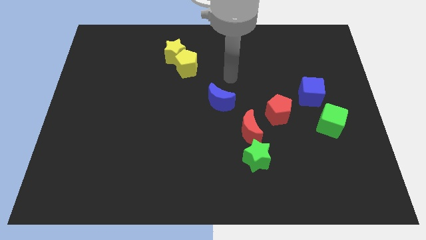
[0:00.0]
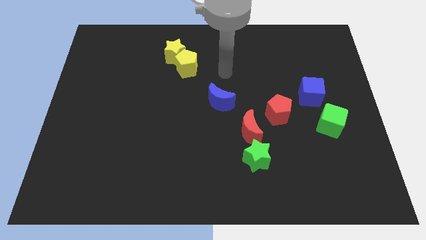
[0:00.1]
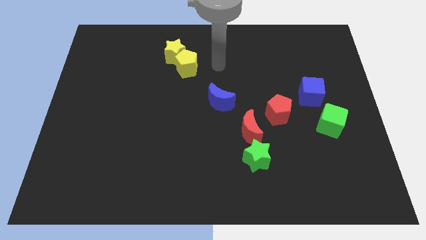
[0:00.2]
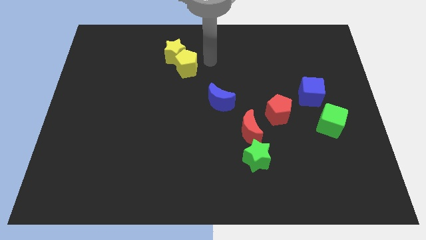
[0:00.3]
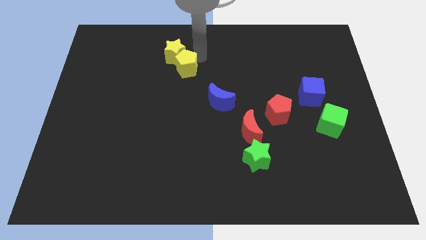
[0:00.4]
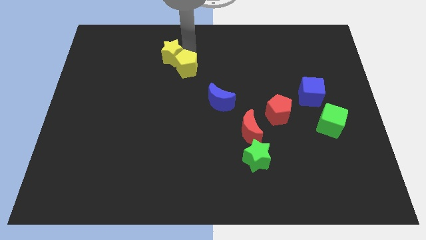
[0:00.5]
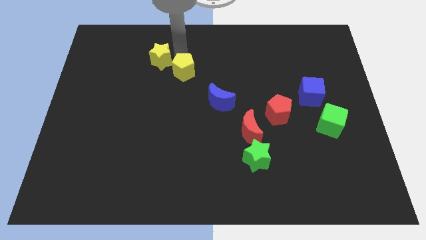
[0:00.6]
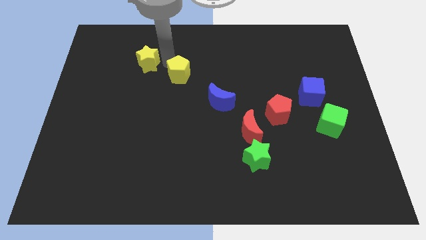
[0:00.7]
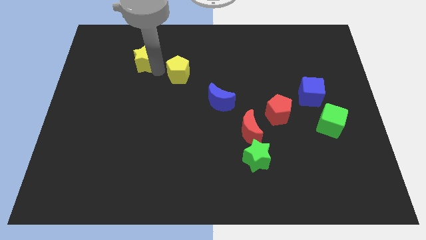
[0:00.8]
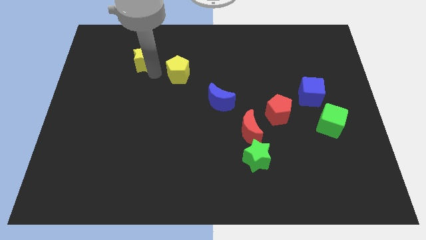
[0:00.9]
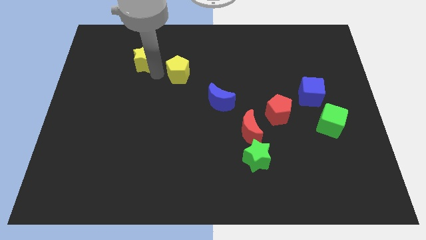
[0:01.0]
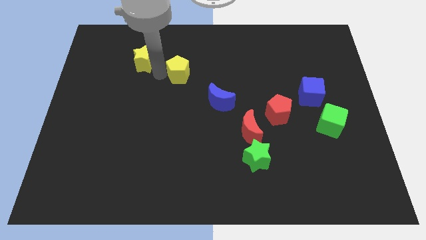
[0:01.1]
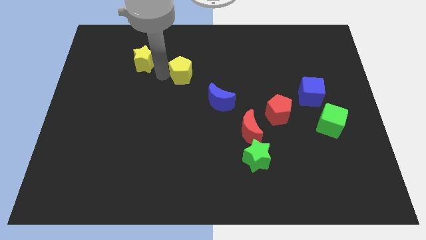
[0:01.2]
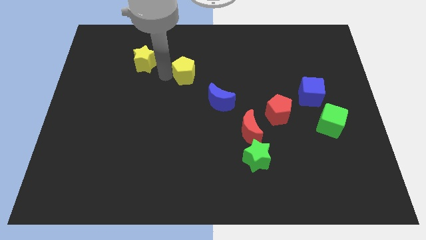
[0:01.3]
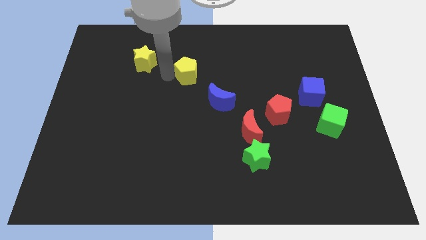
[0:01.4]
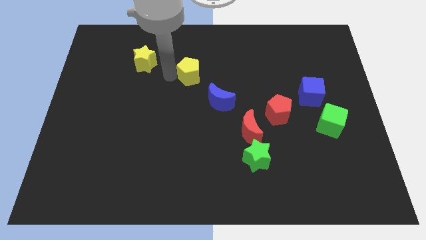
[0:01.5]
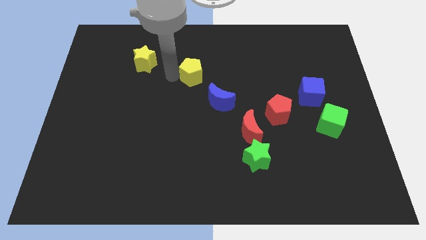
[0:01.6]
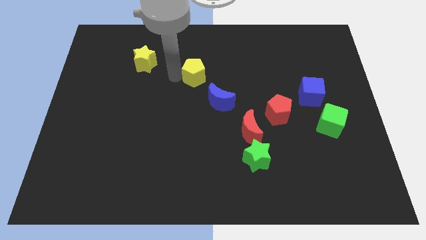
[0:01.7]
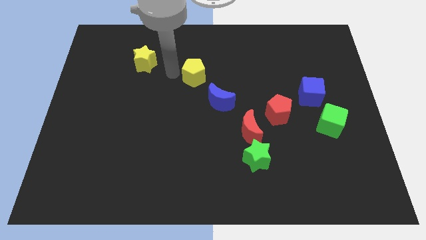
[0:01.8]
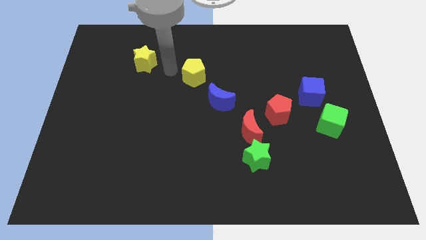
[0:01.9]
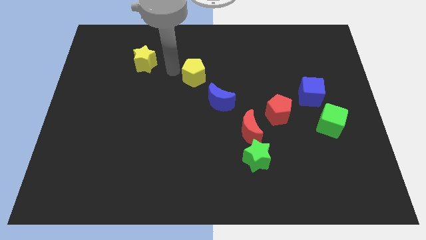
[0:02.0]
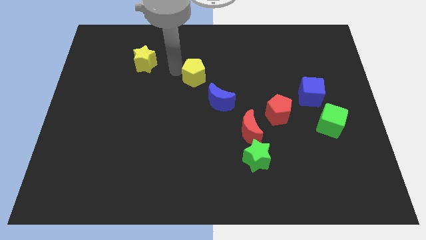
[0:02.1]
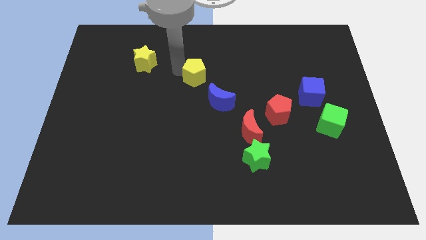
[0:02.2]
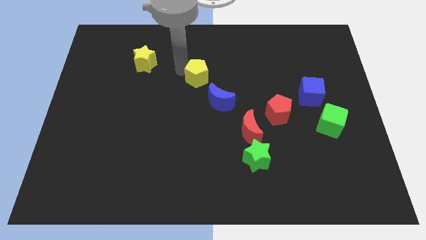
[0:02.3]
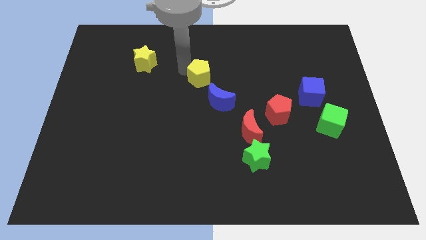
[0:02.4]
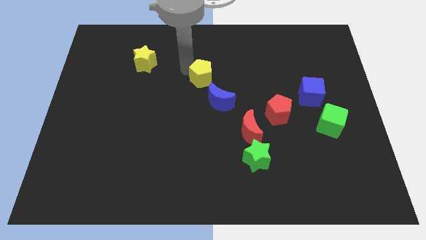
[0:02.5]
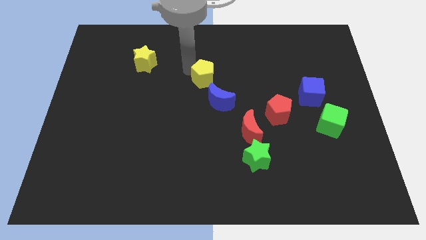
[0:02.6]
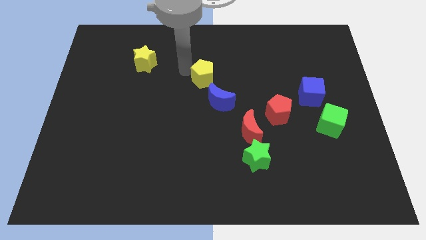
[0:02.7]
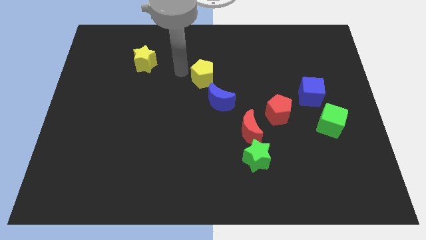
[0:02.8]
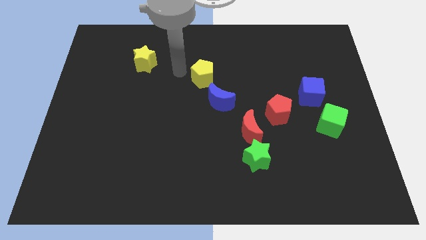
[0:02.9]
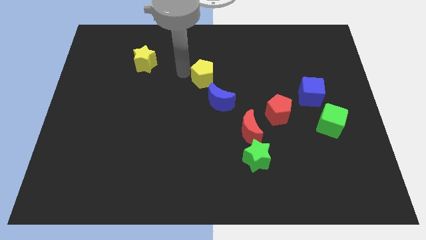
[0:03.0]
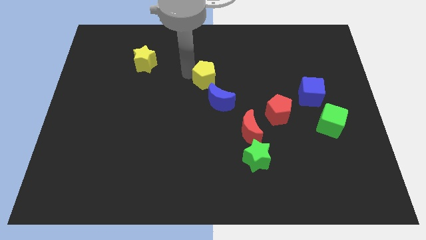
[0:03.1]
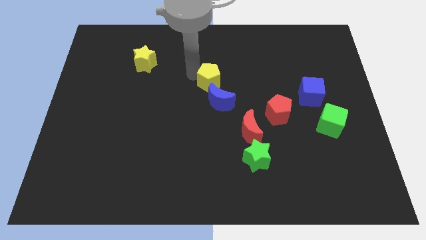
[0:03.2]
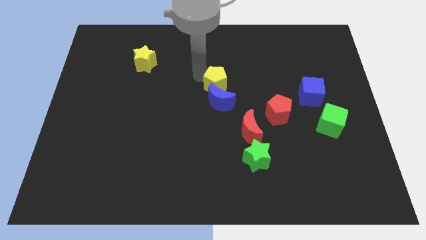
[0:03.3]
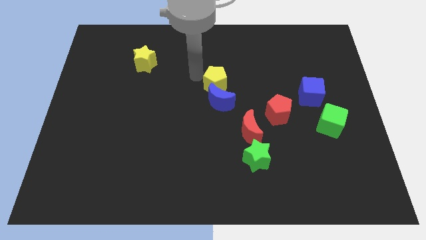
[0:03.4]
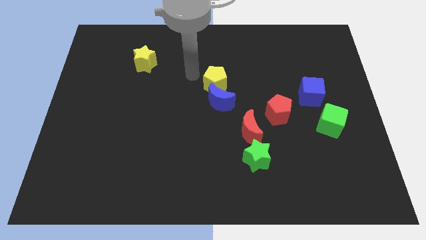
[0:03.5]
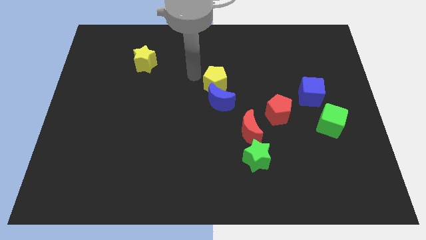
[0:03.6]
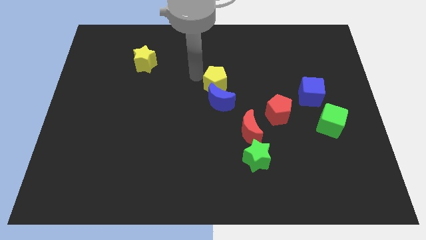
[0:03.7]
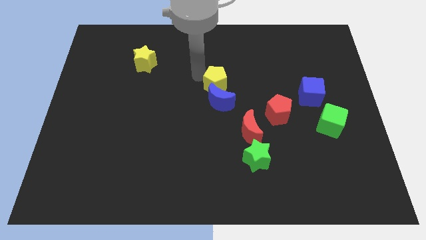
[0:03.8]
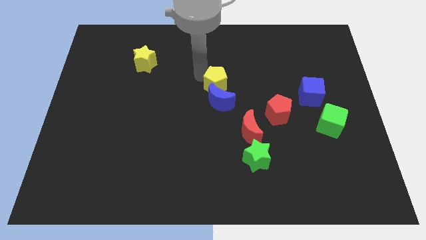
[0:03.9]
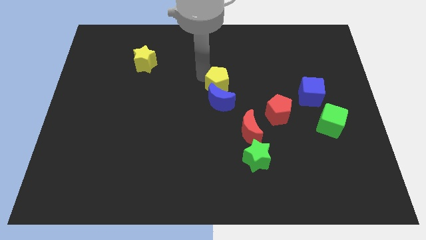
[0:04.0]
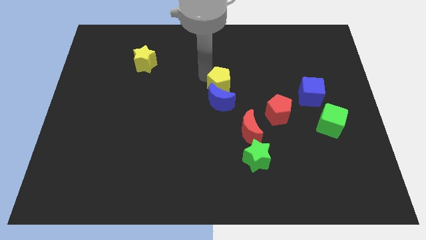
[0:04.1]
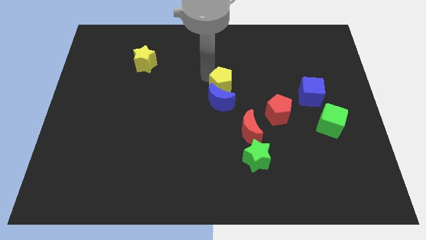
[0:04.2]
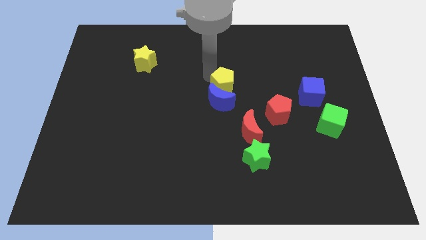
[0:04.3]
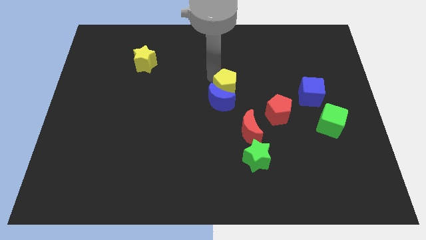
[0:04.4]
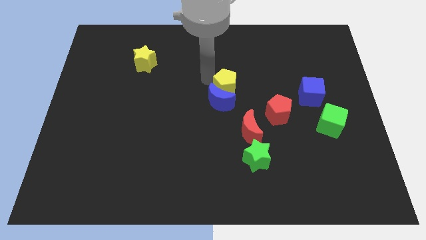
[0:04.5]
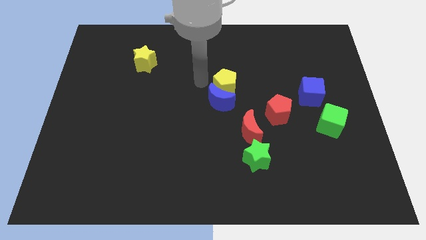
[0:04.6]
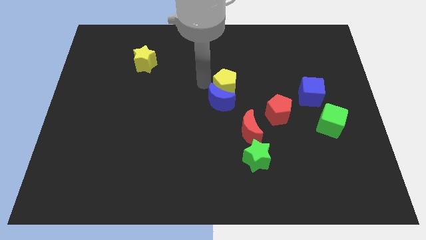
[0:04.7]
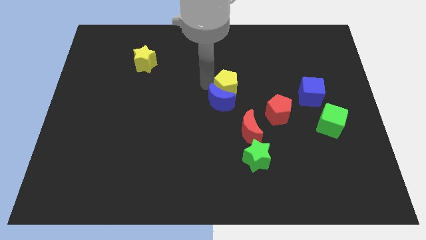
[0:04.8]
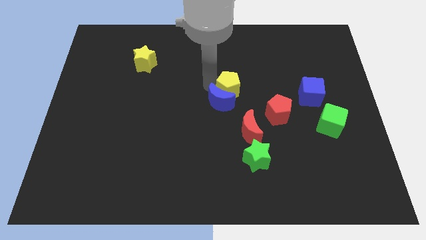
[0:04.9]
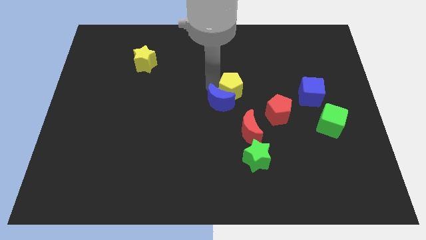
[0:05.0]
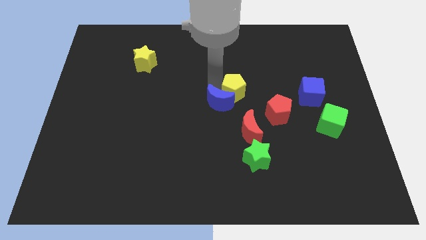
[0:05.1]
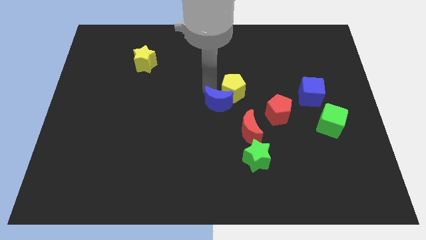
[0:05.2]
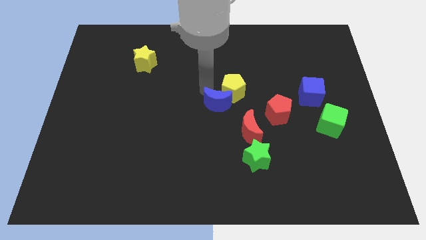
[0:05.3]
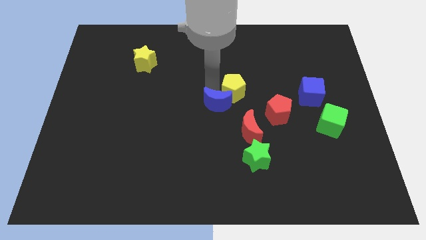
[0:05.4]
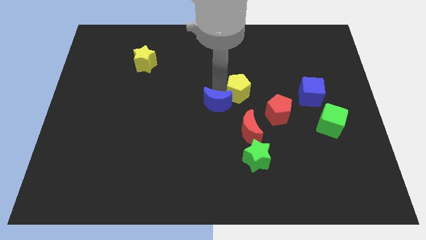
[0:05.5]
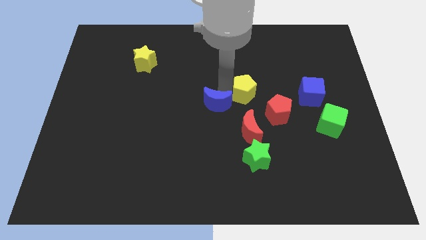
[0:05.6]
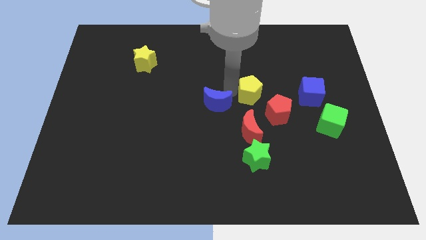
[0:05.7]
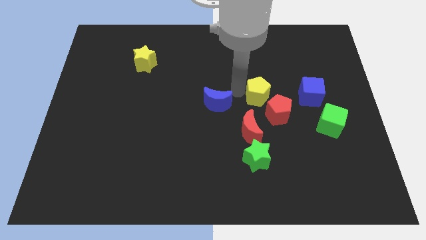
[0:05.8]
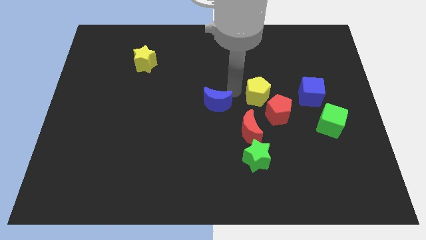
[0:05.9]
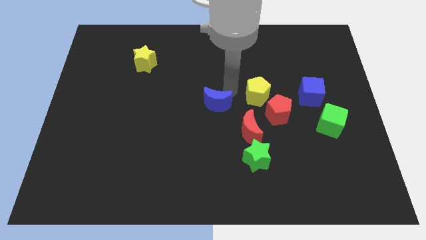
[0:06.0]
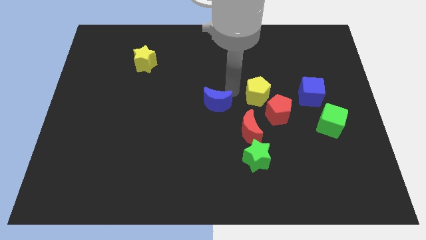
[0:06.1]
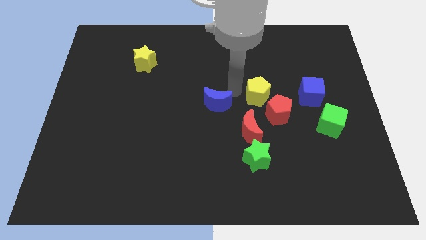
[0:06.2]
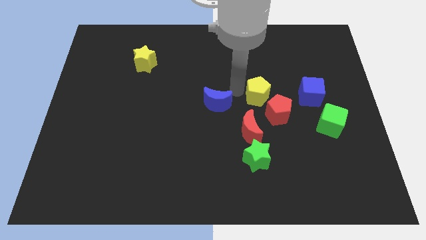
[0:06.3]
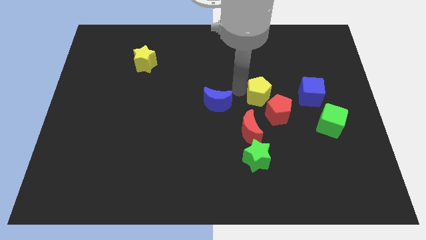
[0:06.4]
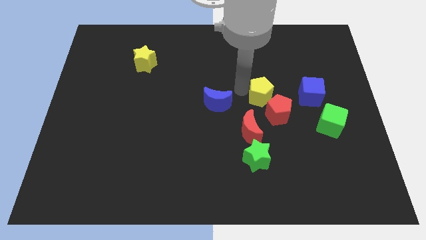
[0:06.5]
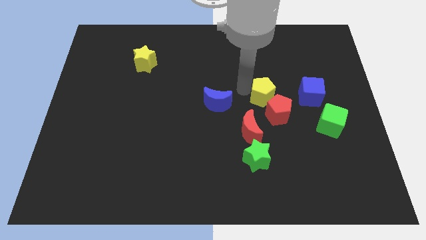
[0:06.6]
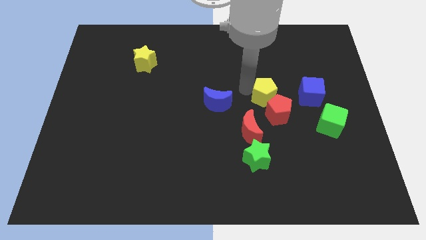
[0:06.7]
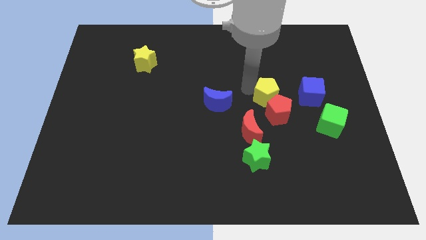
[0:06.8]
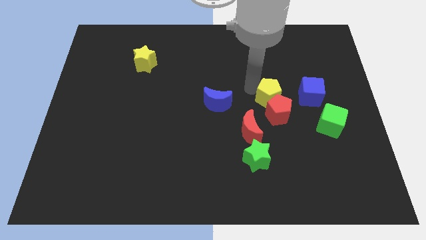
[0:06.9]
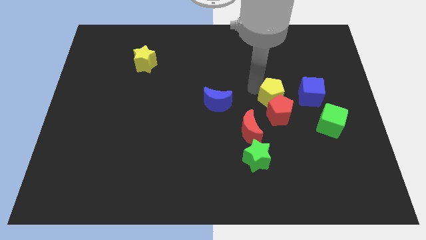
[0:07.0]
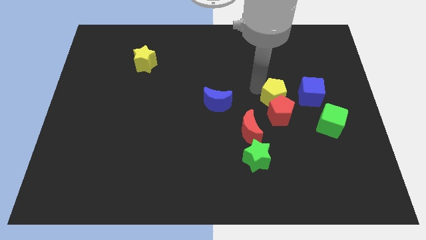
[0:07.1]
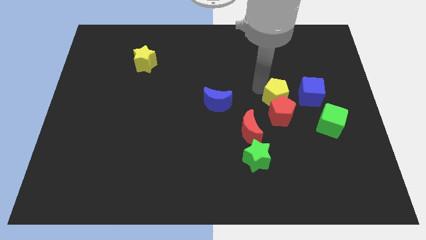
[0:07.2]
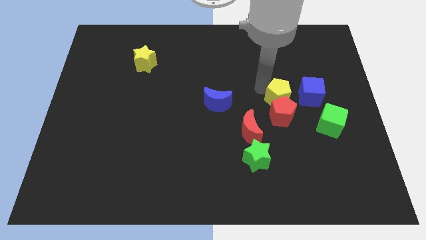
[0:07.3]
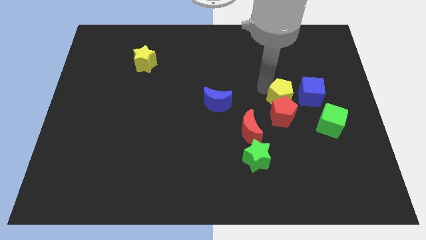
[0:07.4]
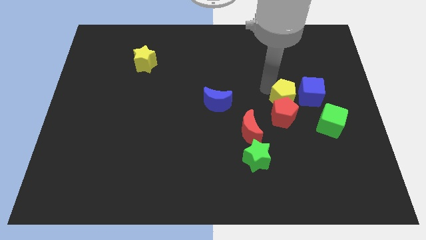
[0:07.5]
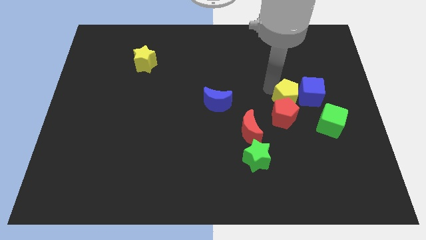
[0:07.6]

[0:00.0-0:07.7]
move the yellow pentagon down and then right

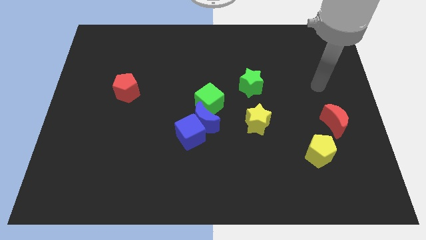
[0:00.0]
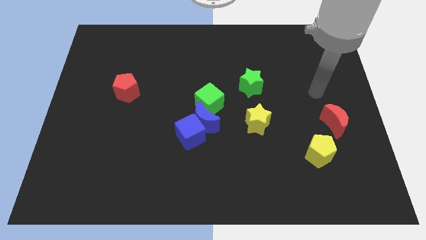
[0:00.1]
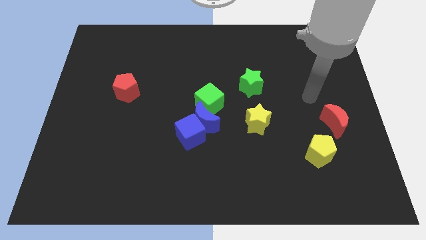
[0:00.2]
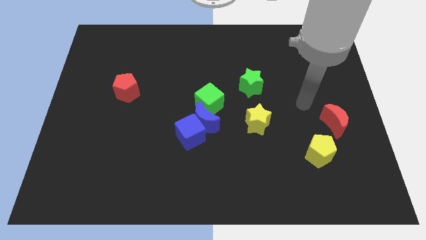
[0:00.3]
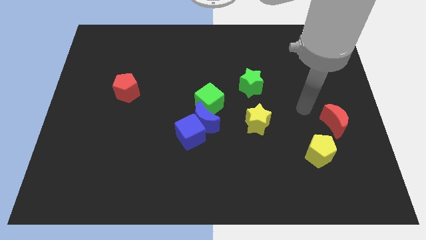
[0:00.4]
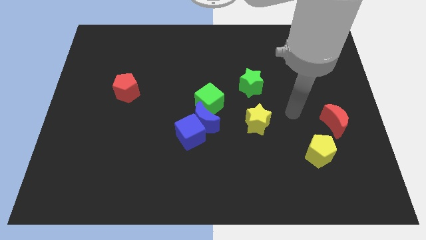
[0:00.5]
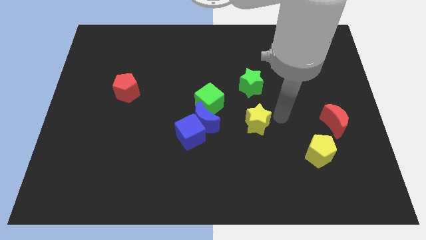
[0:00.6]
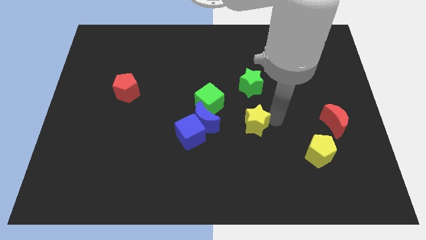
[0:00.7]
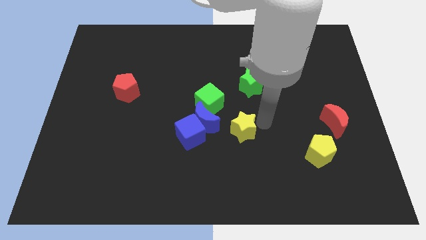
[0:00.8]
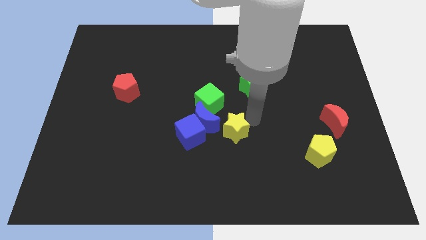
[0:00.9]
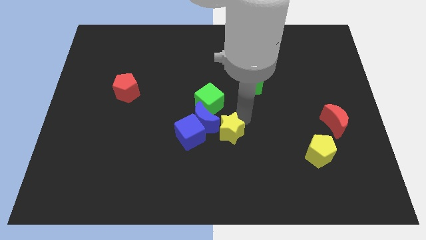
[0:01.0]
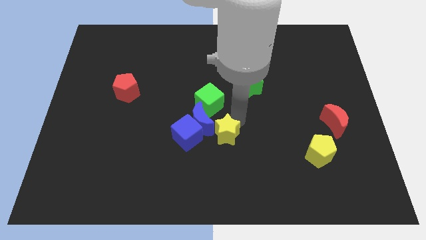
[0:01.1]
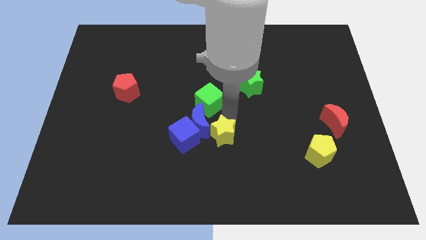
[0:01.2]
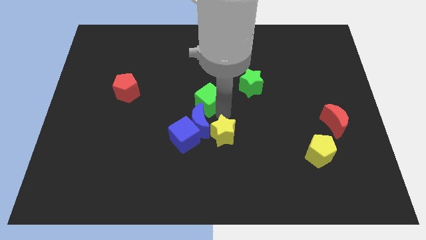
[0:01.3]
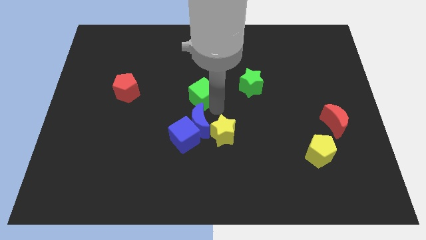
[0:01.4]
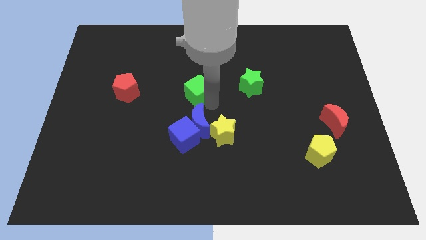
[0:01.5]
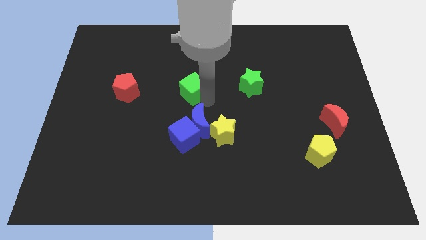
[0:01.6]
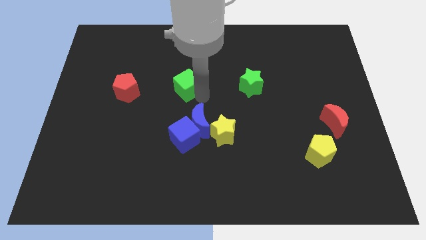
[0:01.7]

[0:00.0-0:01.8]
slightly move the green cube upwards and then to the left
